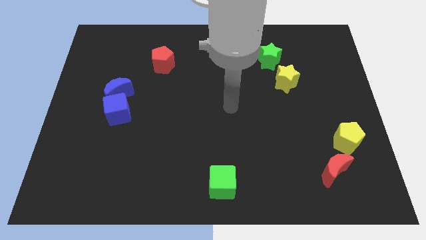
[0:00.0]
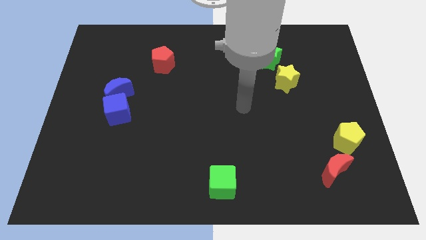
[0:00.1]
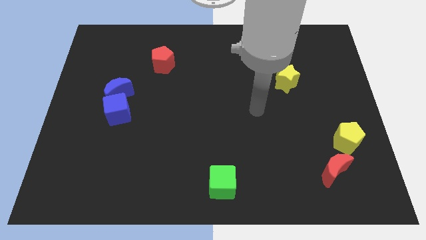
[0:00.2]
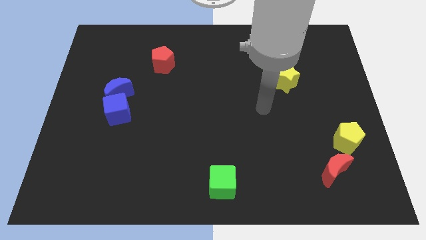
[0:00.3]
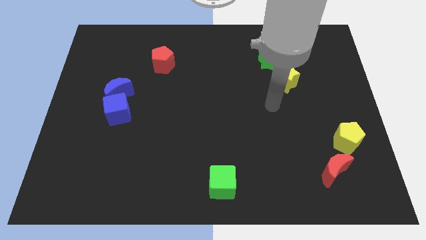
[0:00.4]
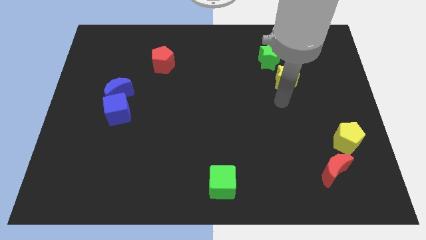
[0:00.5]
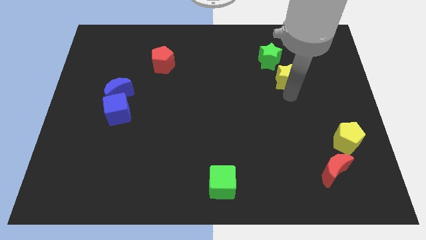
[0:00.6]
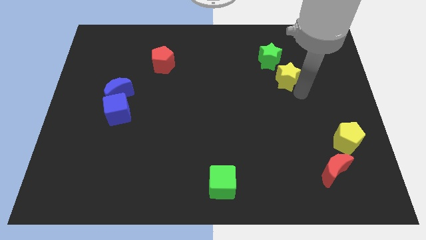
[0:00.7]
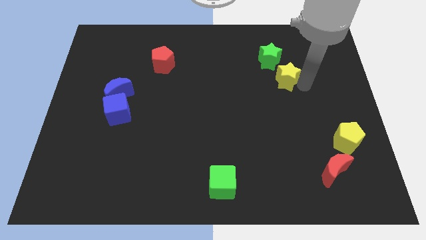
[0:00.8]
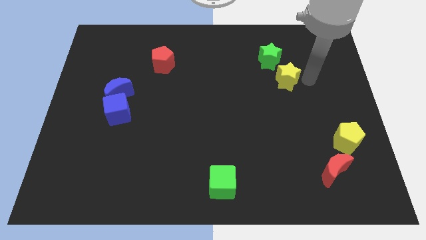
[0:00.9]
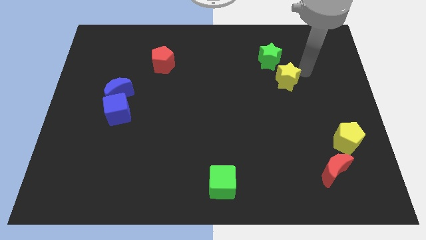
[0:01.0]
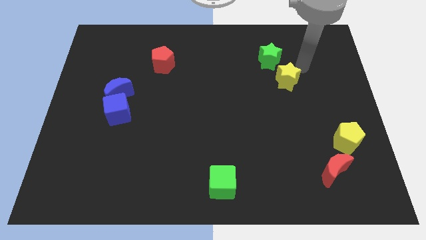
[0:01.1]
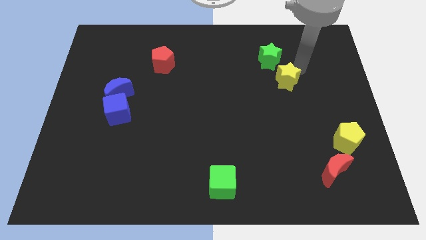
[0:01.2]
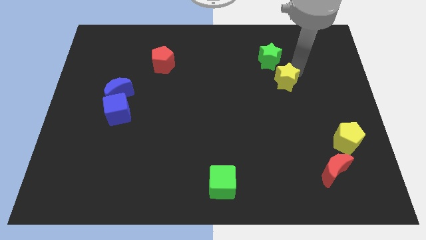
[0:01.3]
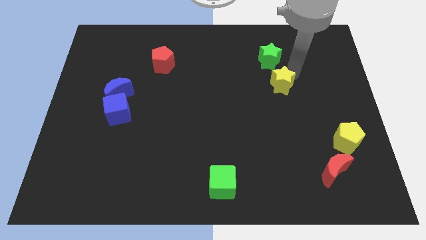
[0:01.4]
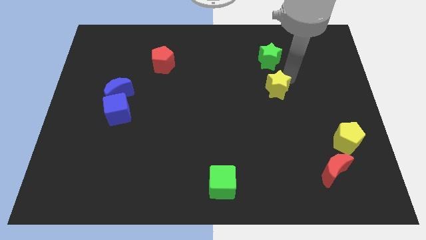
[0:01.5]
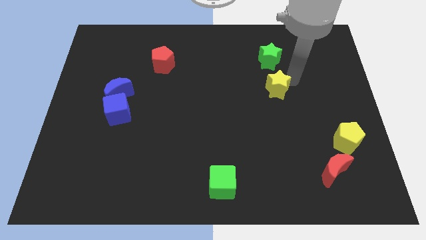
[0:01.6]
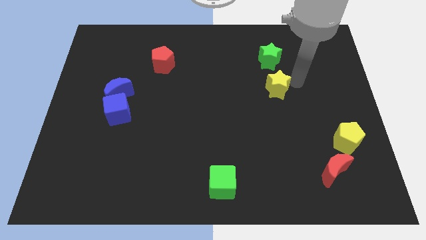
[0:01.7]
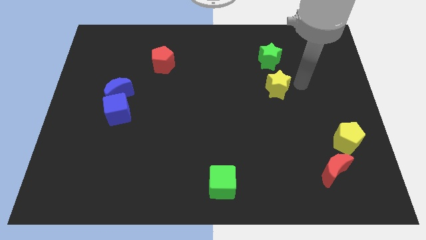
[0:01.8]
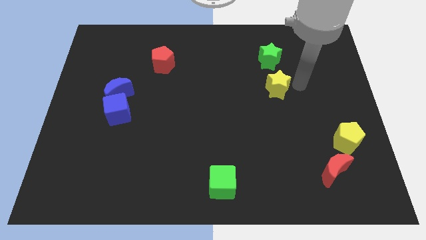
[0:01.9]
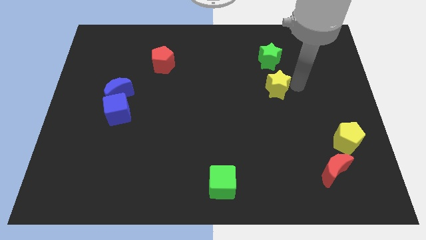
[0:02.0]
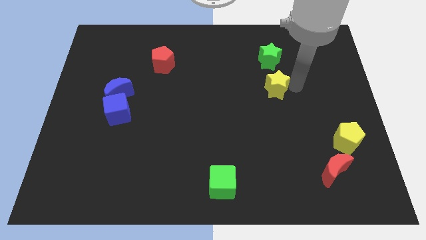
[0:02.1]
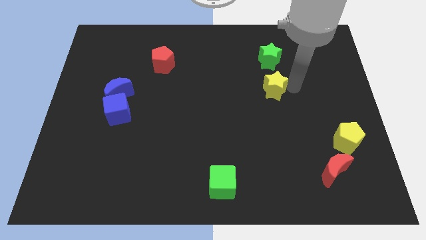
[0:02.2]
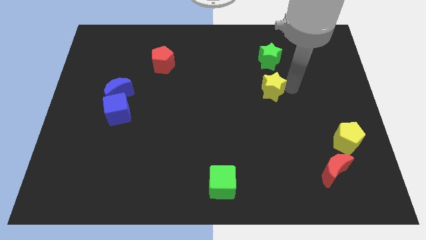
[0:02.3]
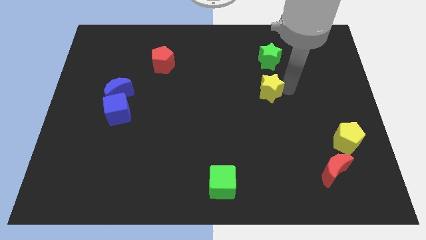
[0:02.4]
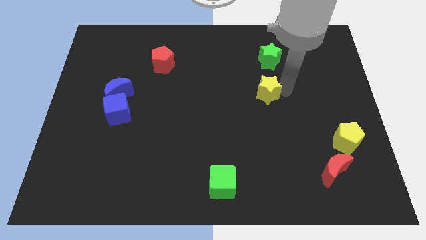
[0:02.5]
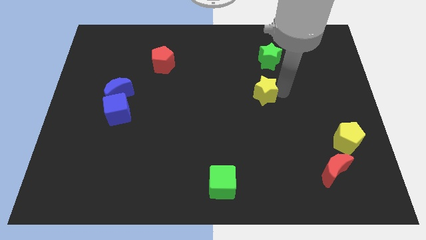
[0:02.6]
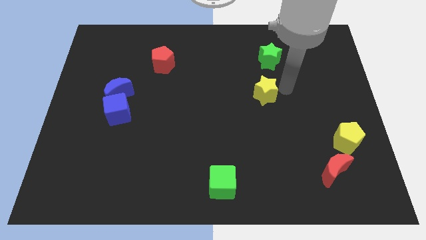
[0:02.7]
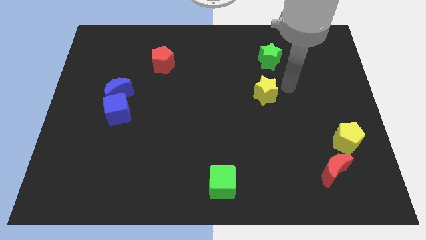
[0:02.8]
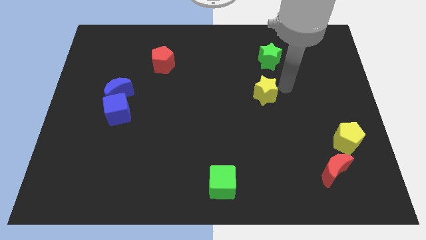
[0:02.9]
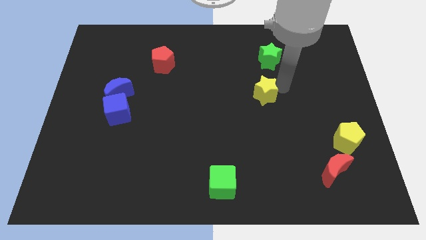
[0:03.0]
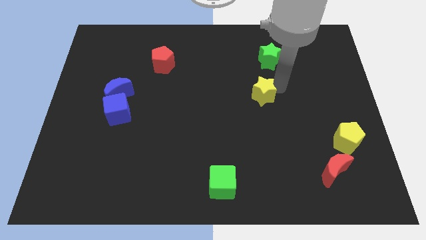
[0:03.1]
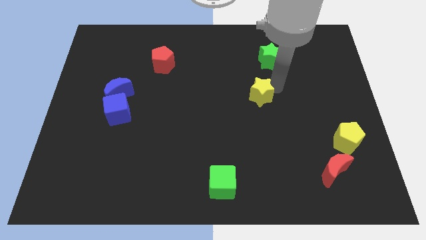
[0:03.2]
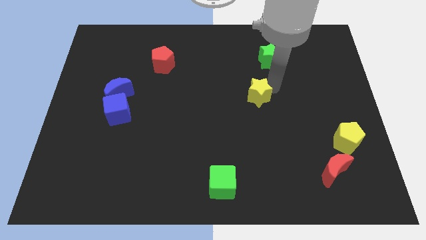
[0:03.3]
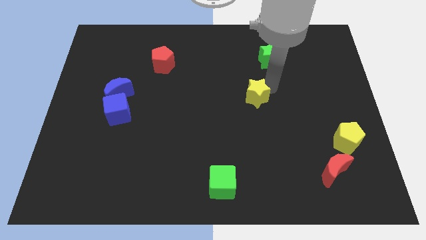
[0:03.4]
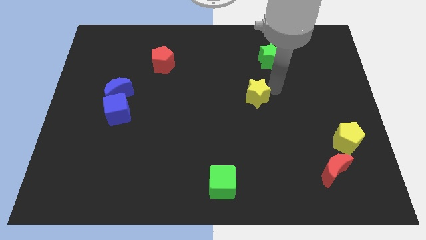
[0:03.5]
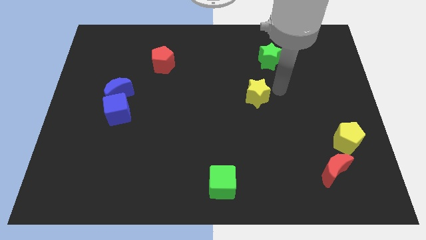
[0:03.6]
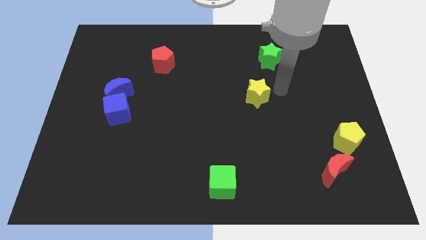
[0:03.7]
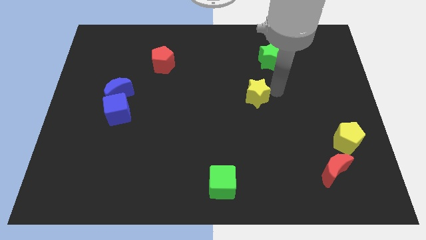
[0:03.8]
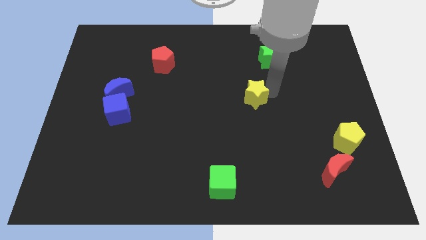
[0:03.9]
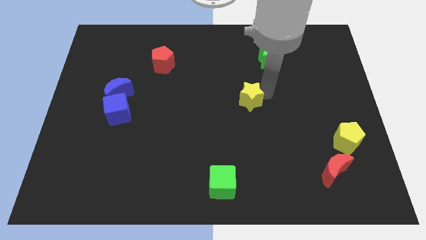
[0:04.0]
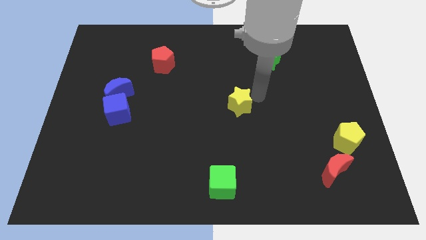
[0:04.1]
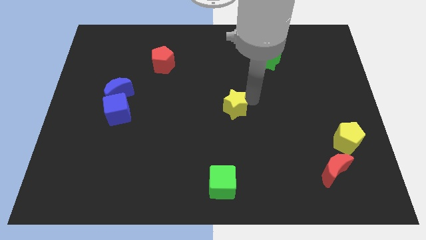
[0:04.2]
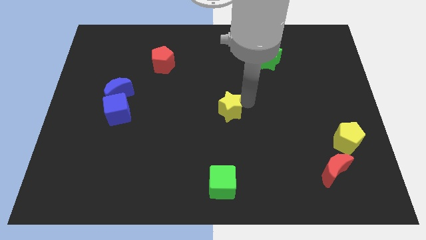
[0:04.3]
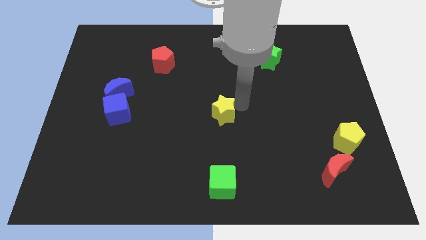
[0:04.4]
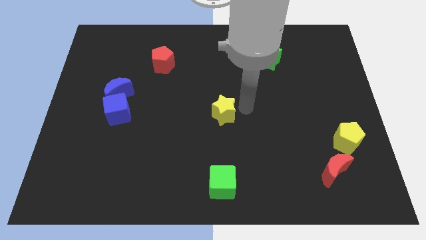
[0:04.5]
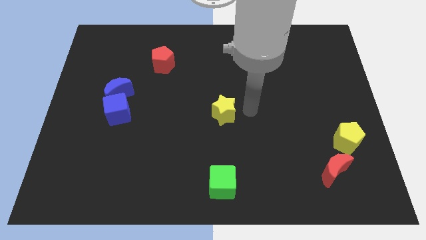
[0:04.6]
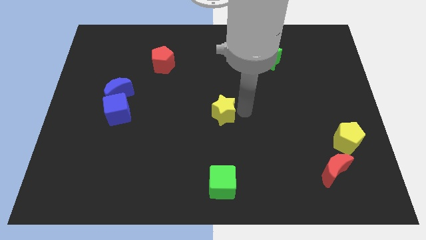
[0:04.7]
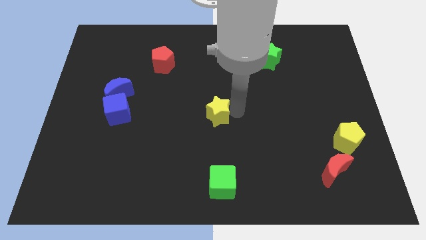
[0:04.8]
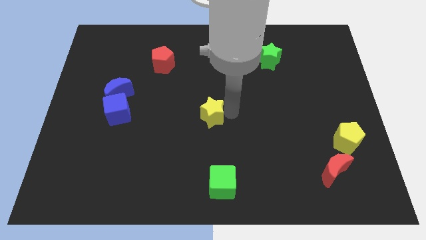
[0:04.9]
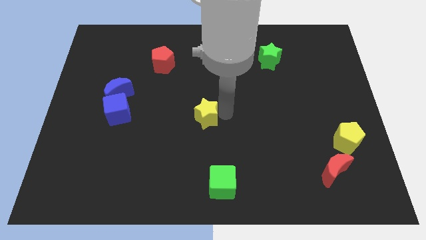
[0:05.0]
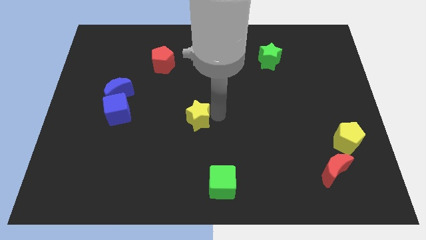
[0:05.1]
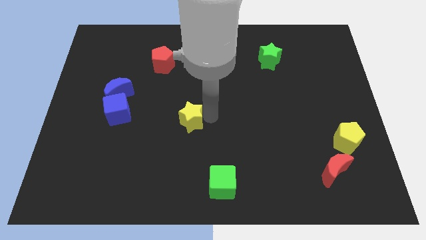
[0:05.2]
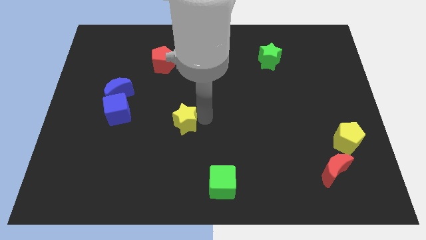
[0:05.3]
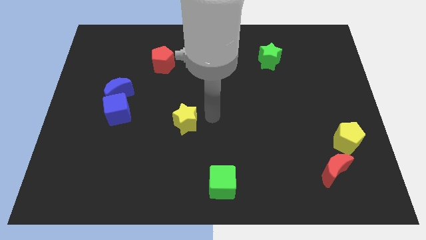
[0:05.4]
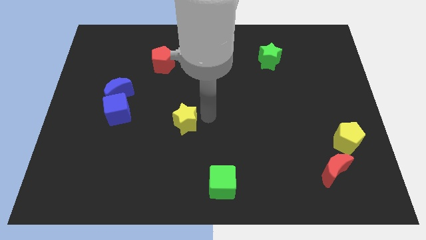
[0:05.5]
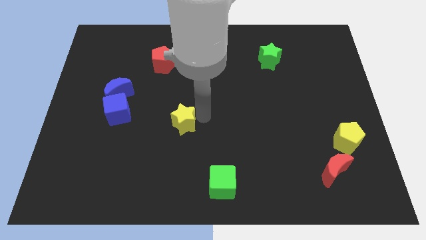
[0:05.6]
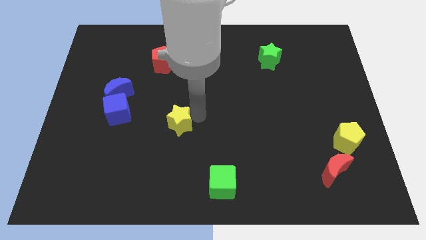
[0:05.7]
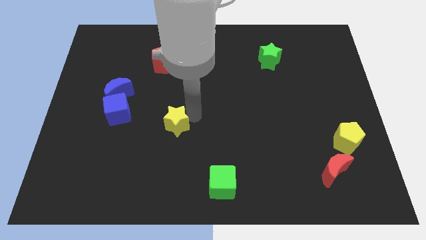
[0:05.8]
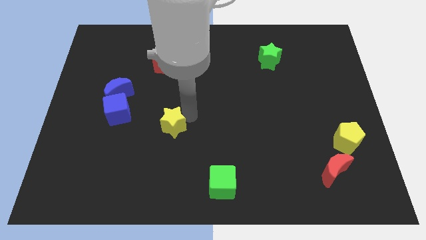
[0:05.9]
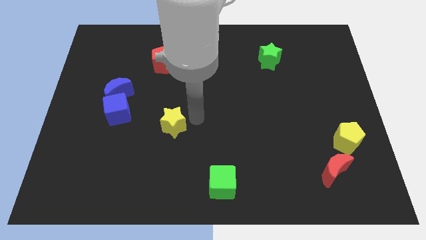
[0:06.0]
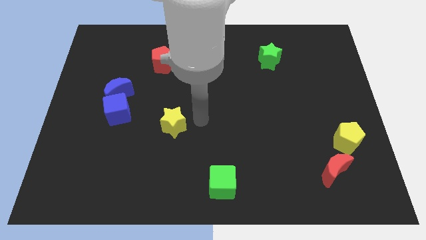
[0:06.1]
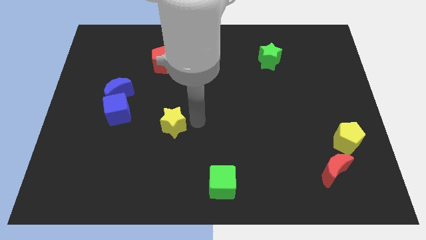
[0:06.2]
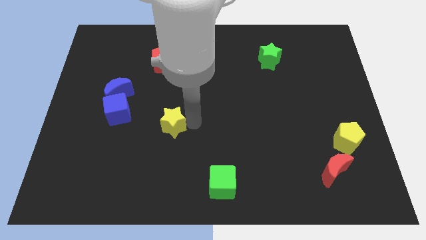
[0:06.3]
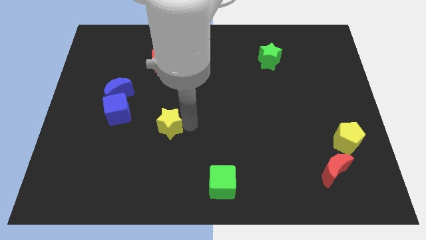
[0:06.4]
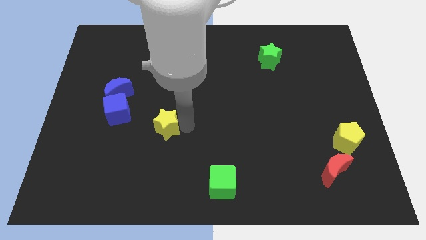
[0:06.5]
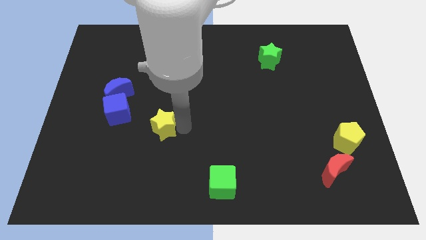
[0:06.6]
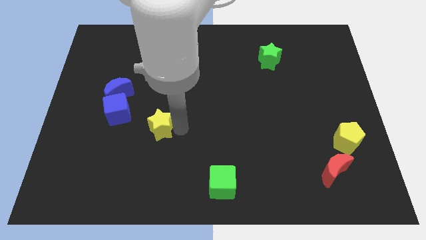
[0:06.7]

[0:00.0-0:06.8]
push the yellow star to the bottom right of the blue cube

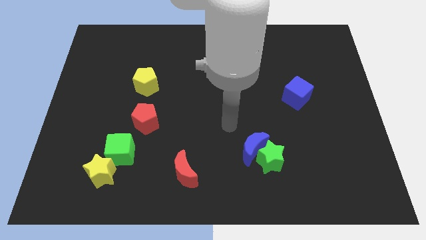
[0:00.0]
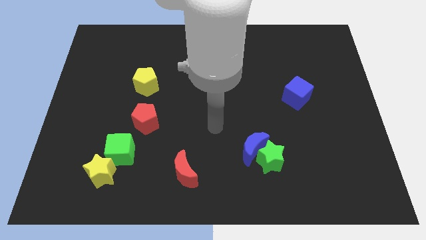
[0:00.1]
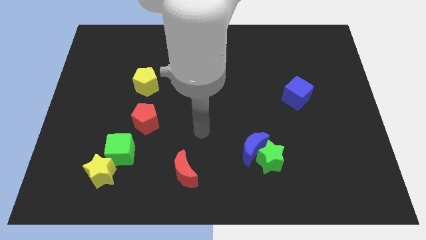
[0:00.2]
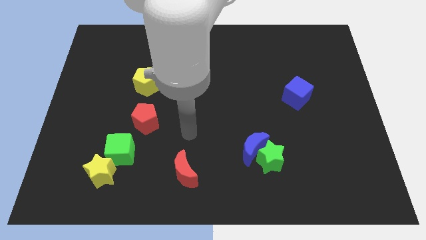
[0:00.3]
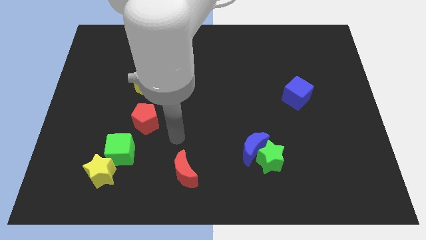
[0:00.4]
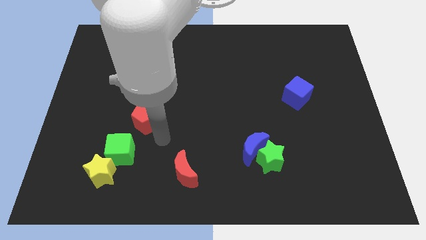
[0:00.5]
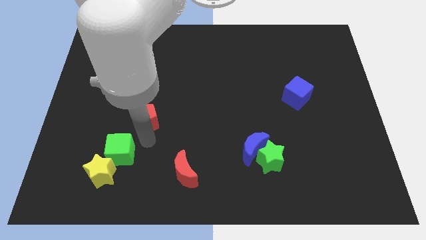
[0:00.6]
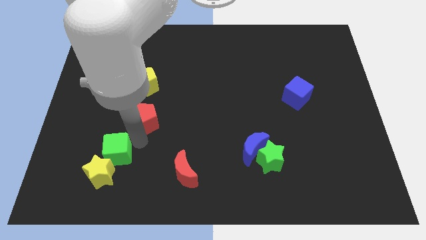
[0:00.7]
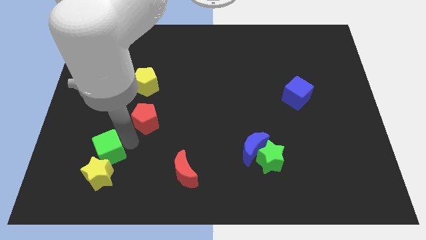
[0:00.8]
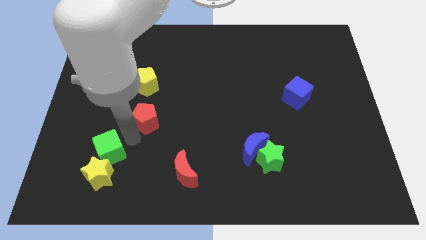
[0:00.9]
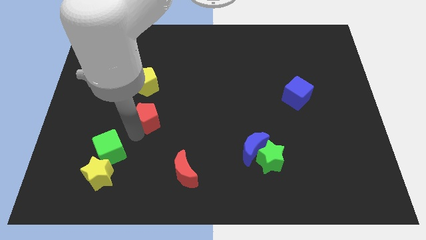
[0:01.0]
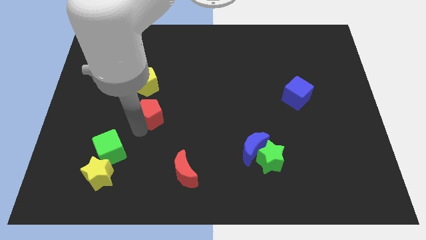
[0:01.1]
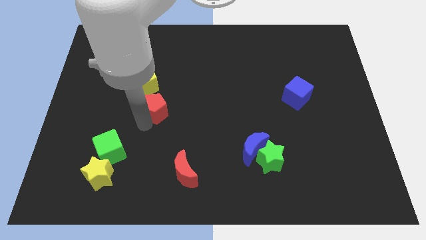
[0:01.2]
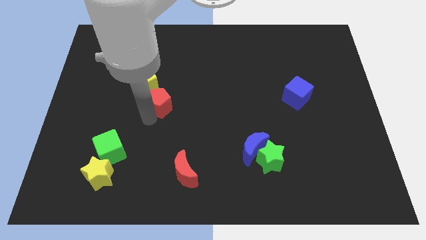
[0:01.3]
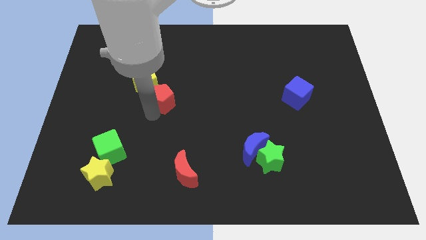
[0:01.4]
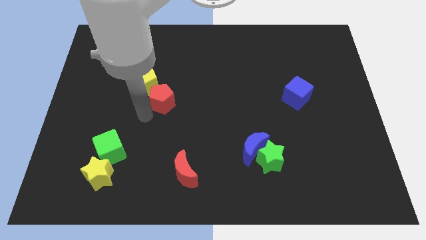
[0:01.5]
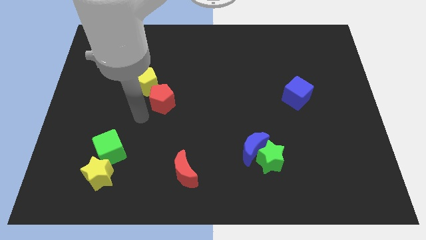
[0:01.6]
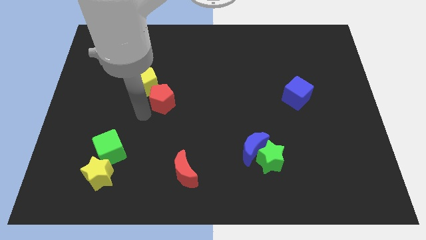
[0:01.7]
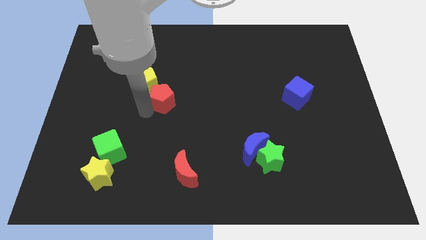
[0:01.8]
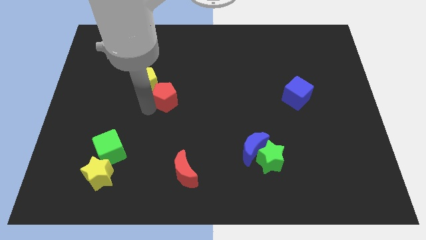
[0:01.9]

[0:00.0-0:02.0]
push the red pentagon right of the yellow pentagon
